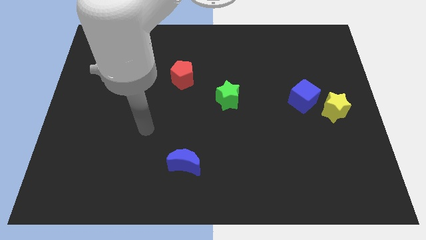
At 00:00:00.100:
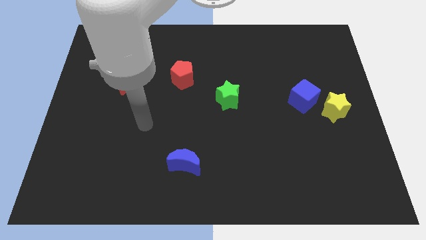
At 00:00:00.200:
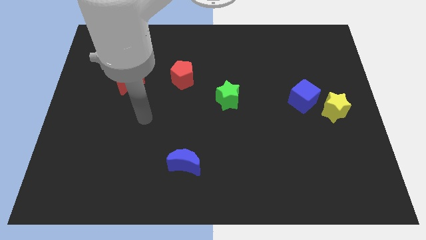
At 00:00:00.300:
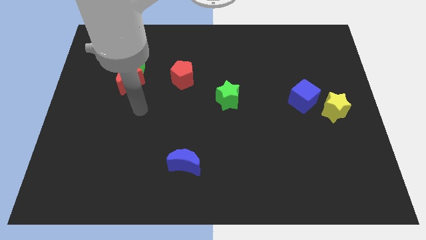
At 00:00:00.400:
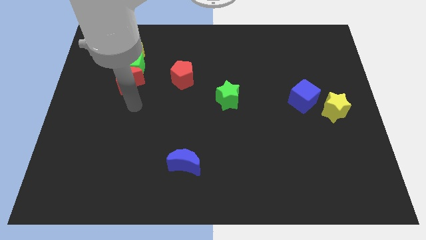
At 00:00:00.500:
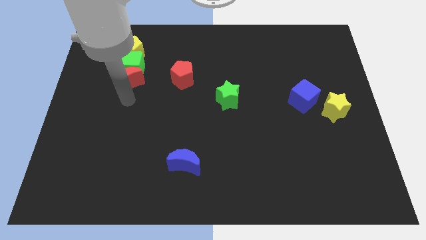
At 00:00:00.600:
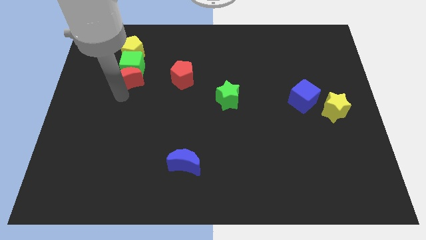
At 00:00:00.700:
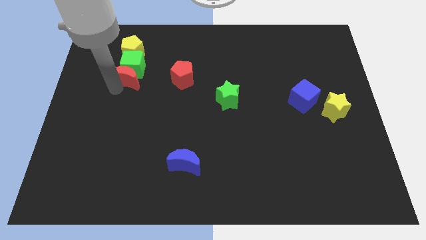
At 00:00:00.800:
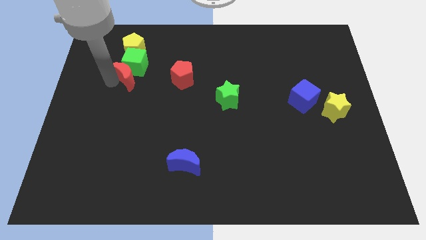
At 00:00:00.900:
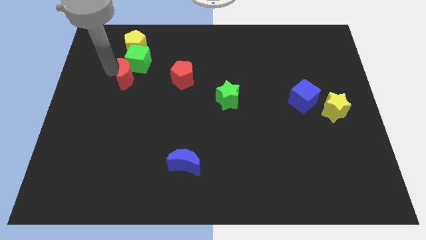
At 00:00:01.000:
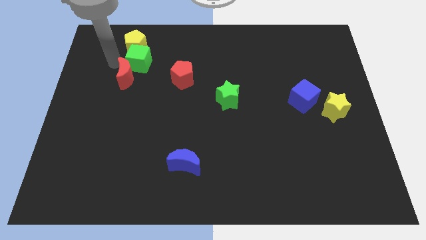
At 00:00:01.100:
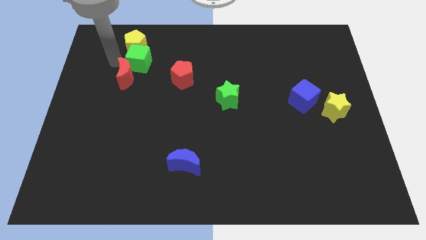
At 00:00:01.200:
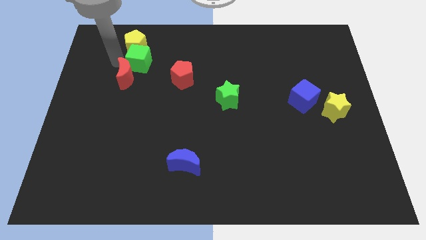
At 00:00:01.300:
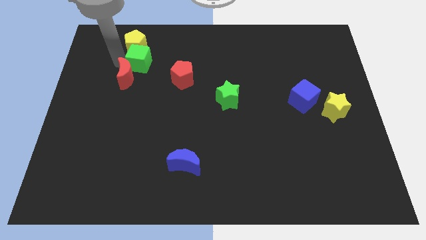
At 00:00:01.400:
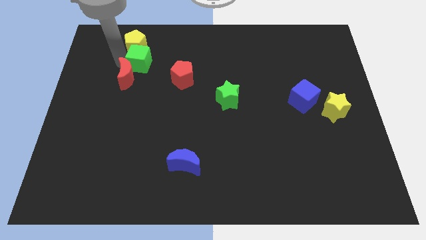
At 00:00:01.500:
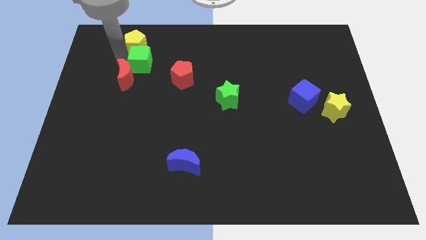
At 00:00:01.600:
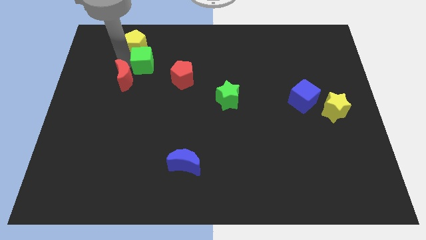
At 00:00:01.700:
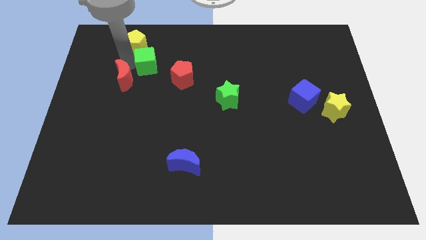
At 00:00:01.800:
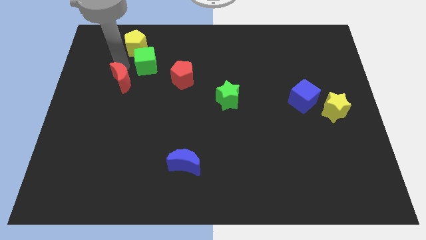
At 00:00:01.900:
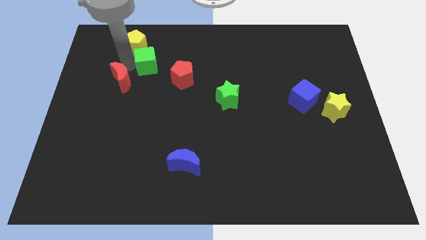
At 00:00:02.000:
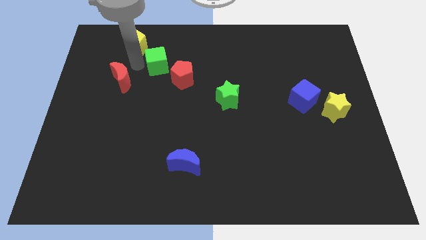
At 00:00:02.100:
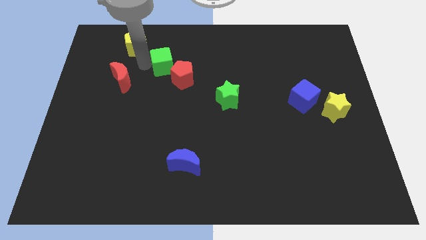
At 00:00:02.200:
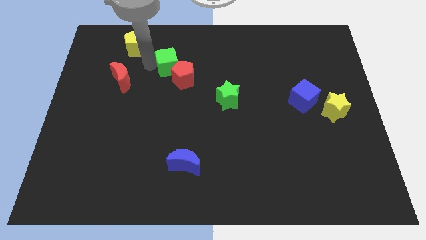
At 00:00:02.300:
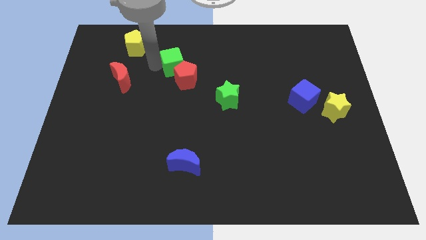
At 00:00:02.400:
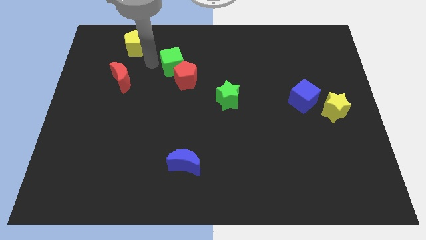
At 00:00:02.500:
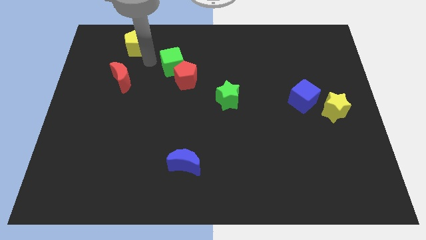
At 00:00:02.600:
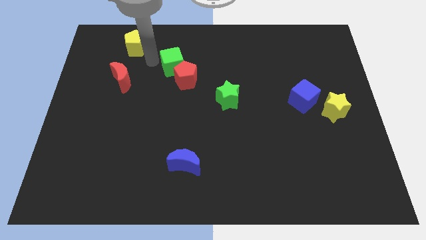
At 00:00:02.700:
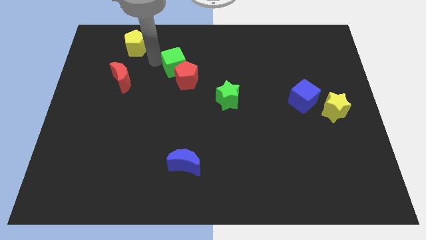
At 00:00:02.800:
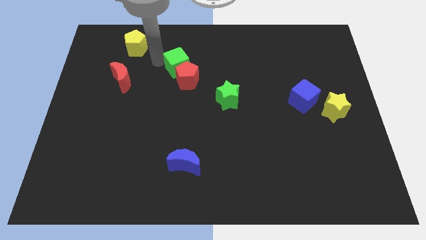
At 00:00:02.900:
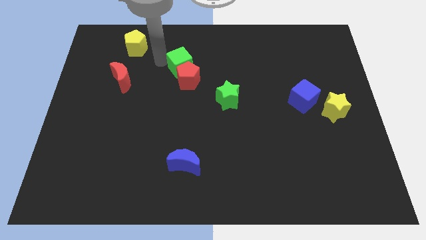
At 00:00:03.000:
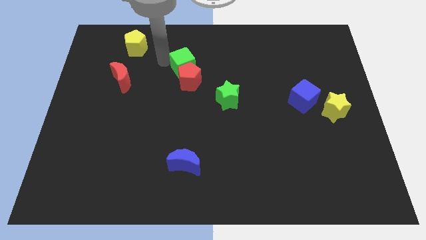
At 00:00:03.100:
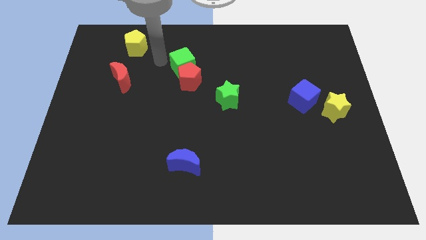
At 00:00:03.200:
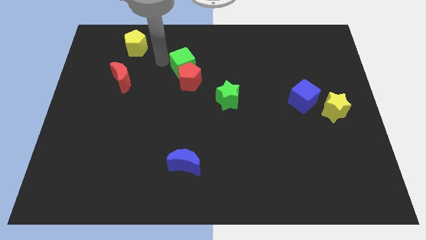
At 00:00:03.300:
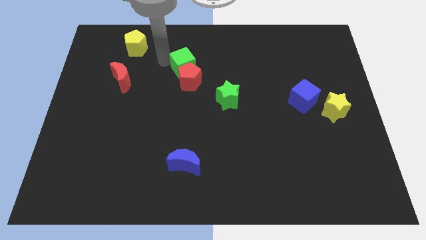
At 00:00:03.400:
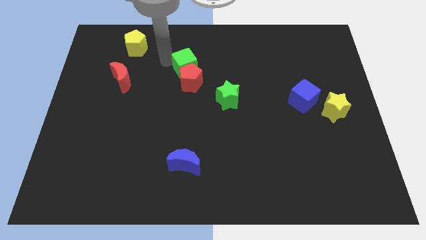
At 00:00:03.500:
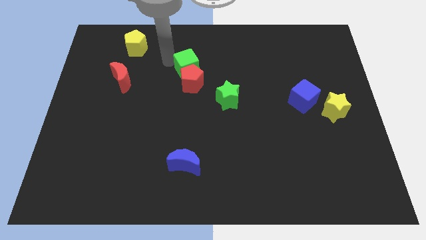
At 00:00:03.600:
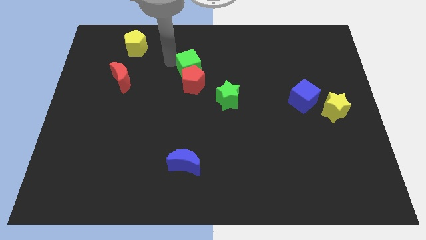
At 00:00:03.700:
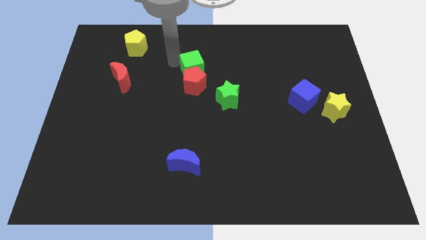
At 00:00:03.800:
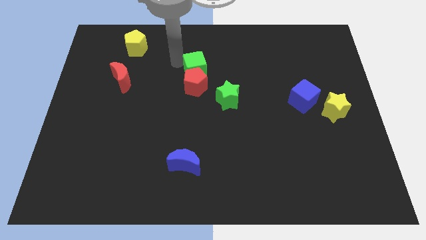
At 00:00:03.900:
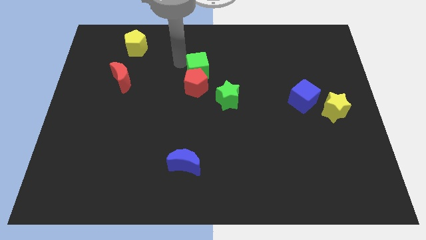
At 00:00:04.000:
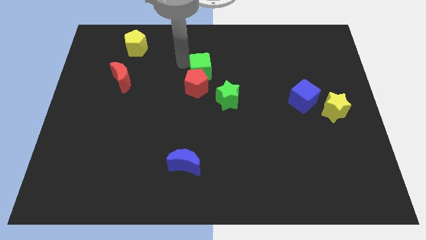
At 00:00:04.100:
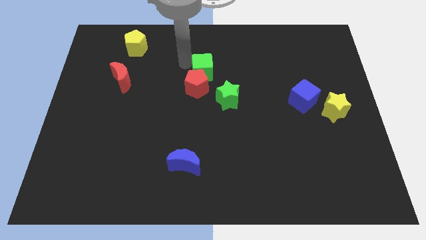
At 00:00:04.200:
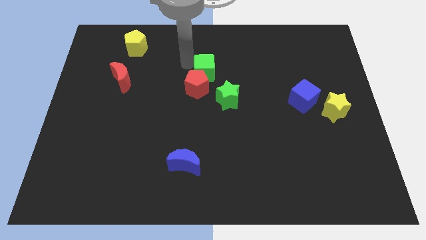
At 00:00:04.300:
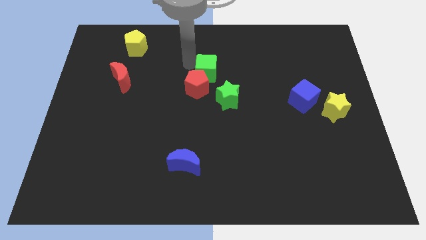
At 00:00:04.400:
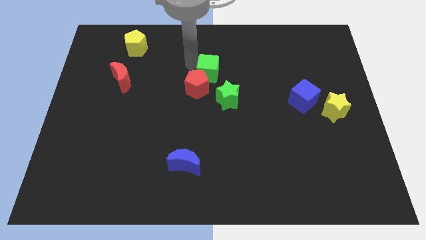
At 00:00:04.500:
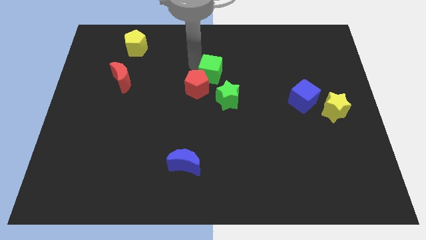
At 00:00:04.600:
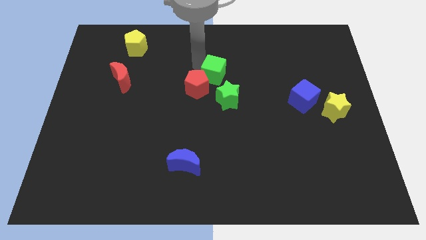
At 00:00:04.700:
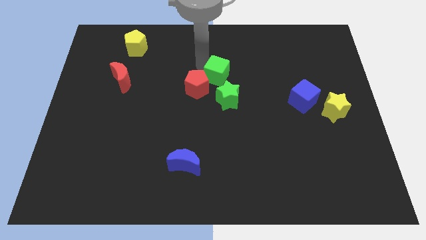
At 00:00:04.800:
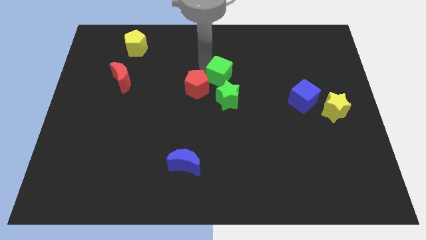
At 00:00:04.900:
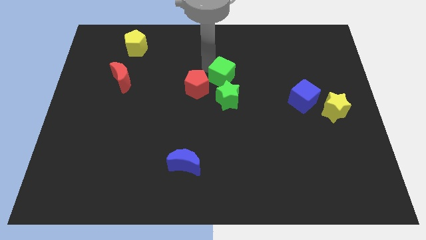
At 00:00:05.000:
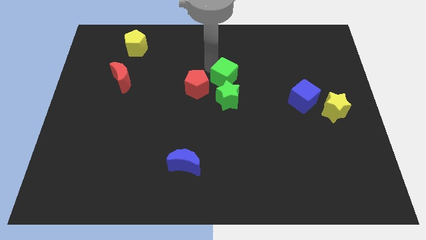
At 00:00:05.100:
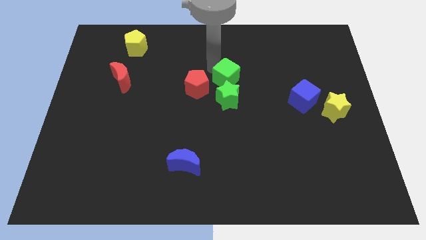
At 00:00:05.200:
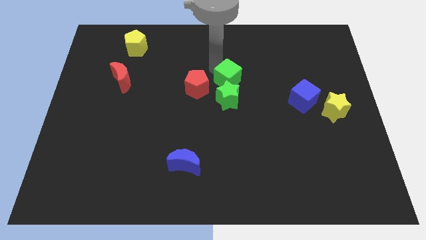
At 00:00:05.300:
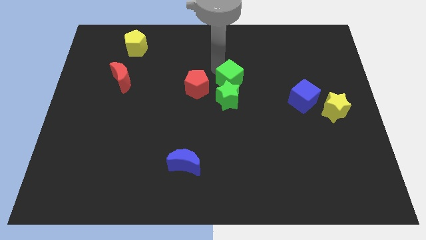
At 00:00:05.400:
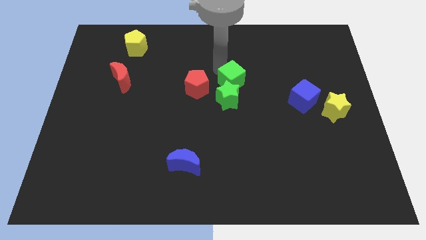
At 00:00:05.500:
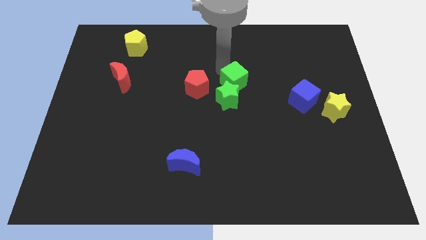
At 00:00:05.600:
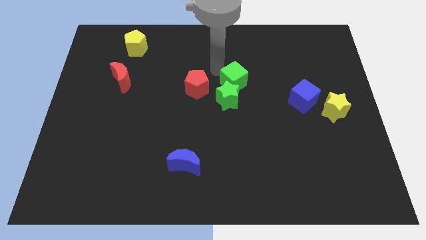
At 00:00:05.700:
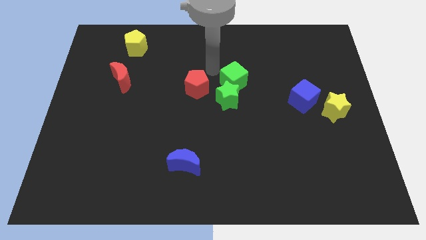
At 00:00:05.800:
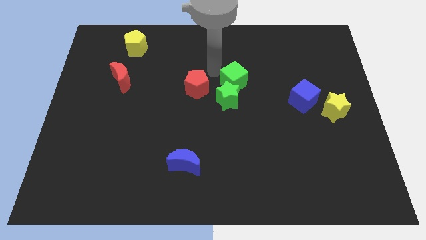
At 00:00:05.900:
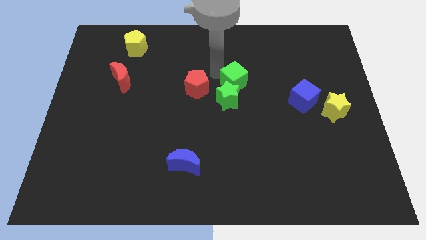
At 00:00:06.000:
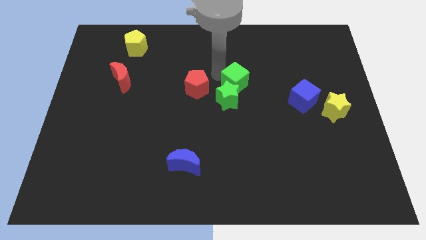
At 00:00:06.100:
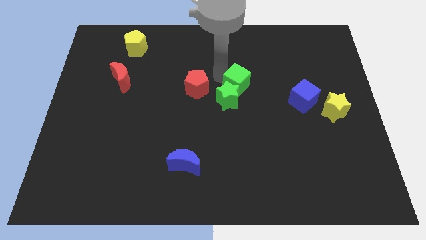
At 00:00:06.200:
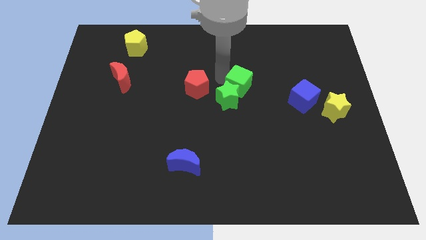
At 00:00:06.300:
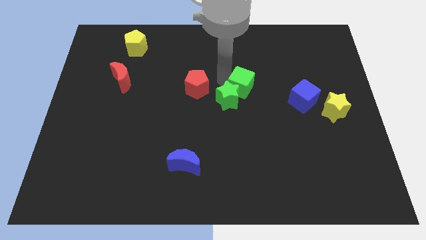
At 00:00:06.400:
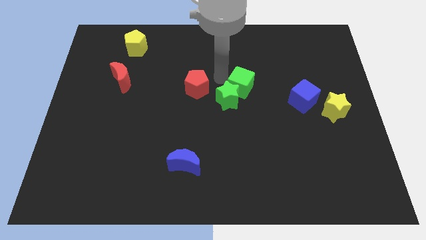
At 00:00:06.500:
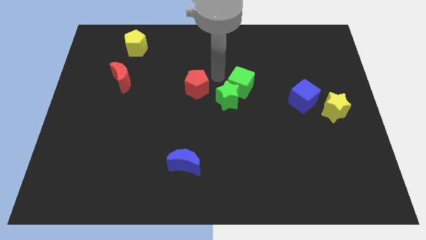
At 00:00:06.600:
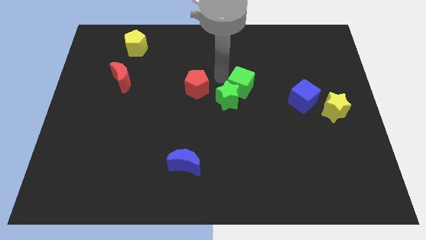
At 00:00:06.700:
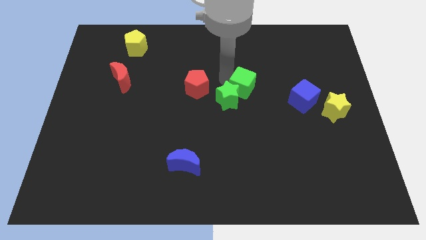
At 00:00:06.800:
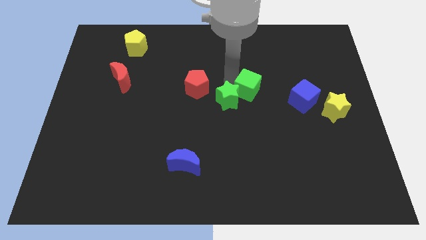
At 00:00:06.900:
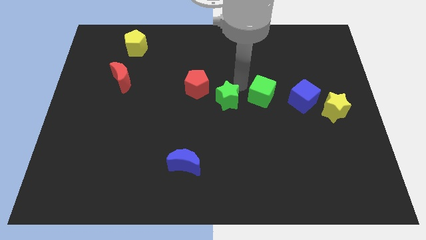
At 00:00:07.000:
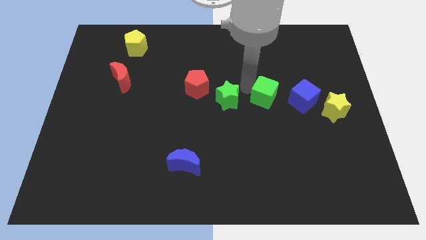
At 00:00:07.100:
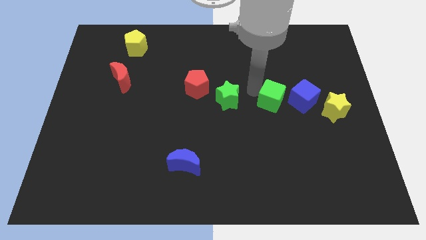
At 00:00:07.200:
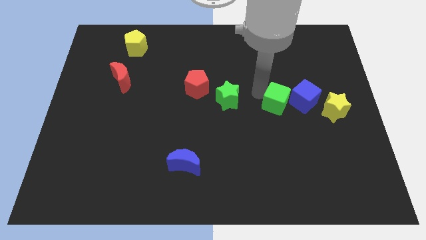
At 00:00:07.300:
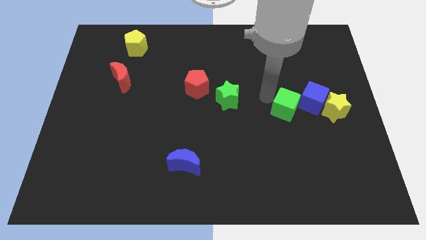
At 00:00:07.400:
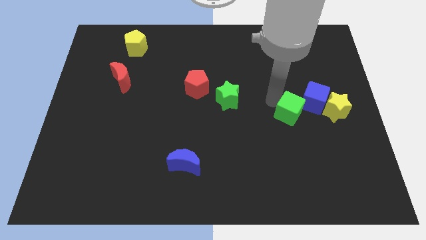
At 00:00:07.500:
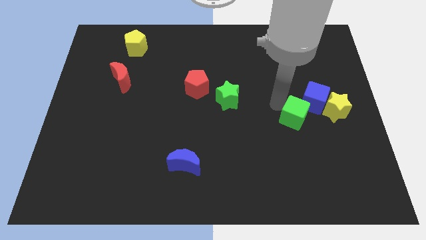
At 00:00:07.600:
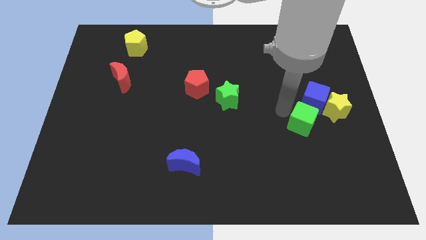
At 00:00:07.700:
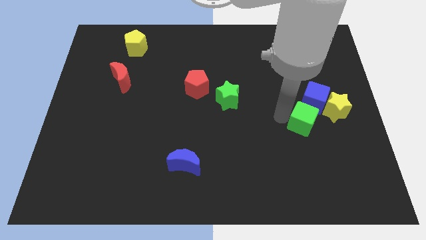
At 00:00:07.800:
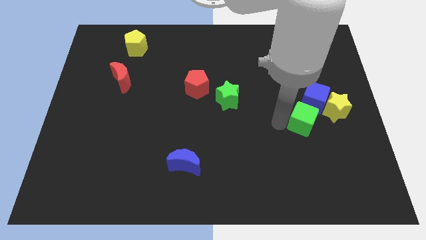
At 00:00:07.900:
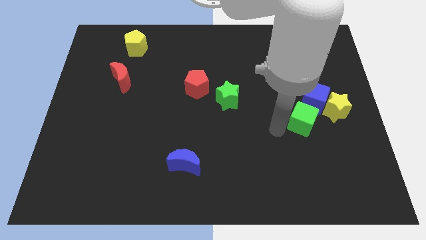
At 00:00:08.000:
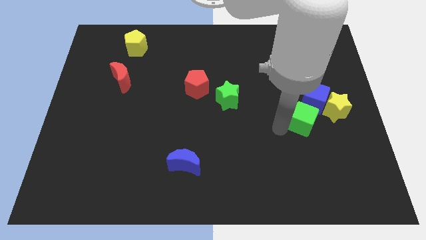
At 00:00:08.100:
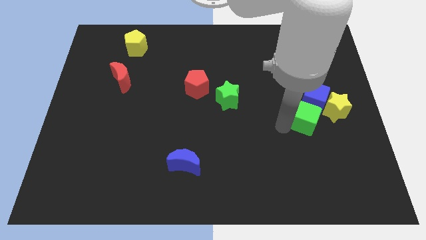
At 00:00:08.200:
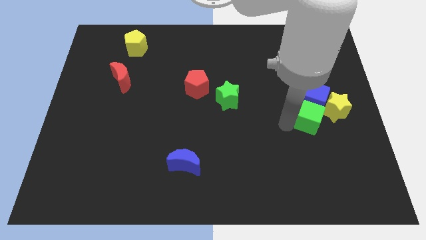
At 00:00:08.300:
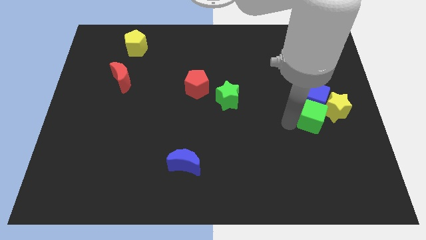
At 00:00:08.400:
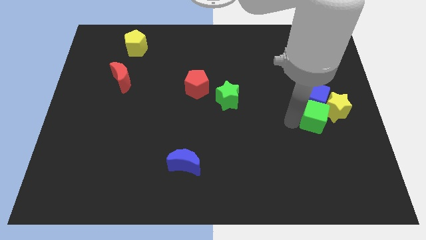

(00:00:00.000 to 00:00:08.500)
slide the green cube next to the yellow star
